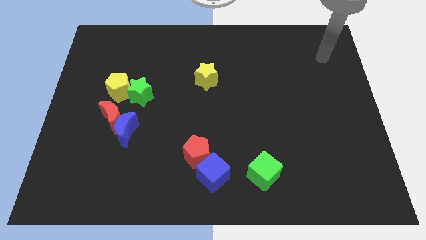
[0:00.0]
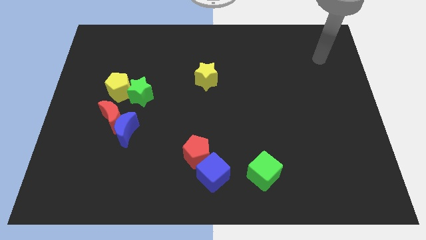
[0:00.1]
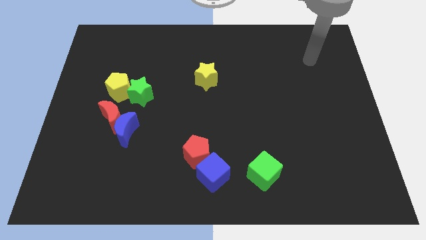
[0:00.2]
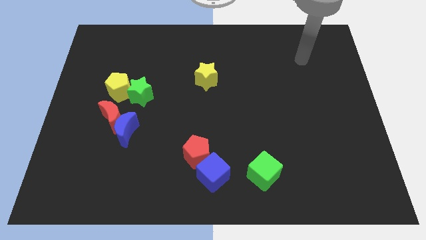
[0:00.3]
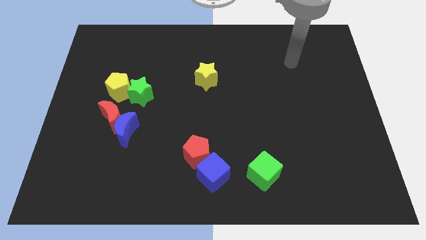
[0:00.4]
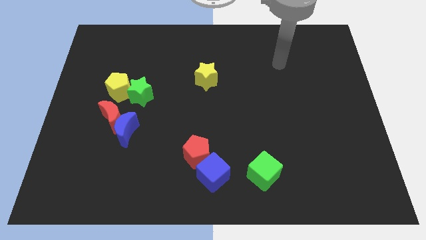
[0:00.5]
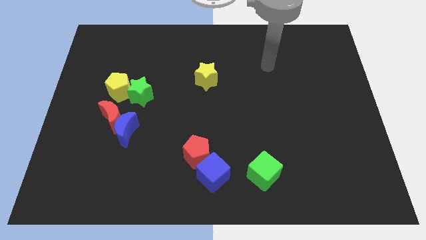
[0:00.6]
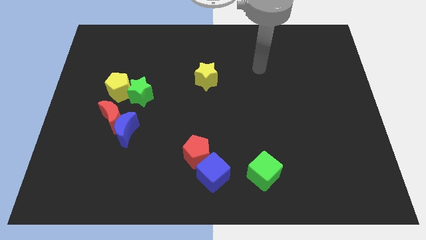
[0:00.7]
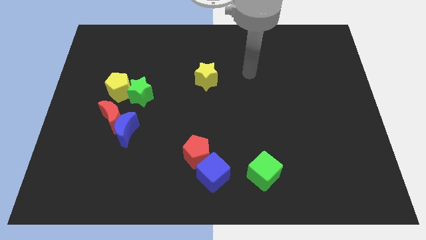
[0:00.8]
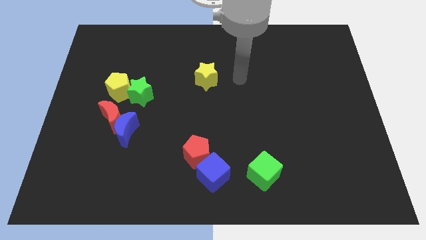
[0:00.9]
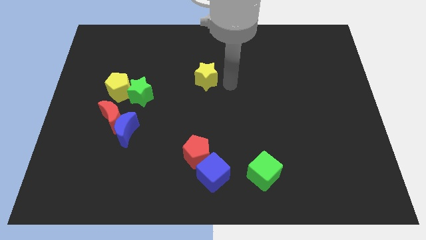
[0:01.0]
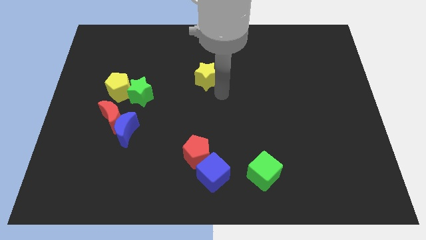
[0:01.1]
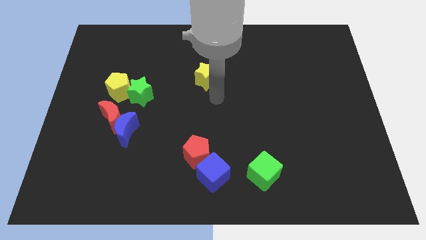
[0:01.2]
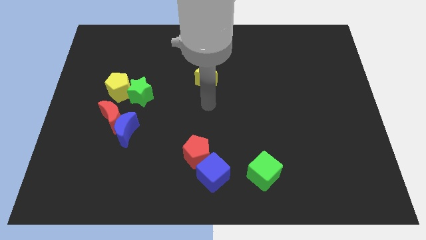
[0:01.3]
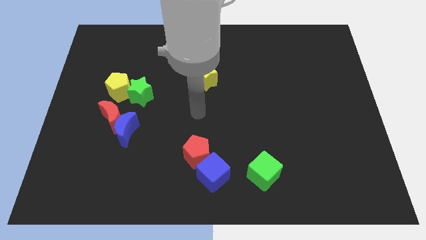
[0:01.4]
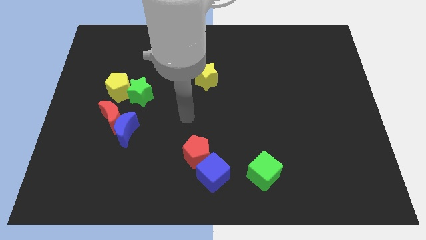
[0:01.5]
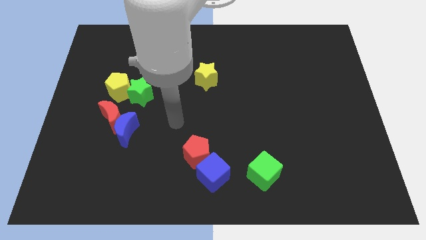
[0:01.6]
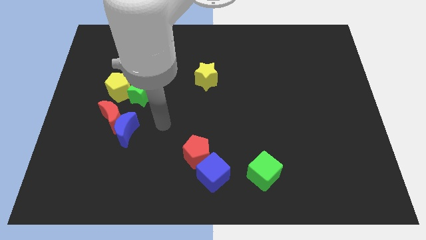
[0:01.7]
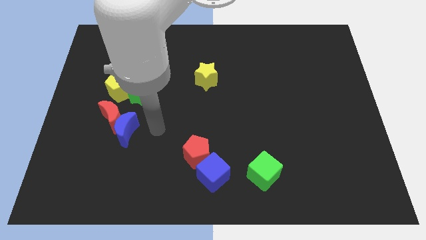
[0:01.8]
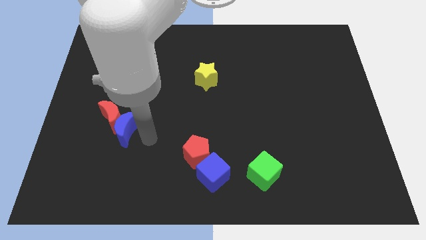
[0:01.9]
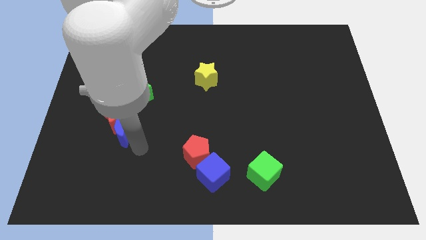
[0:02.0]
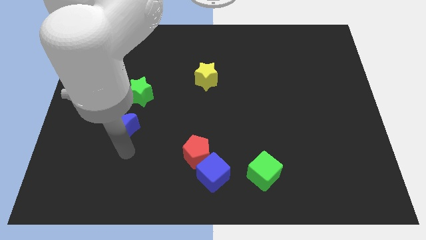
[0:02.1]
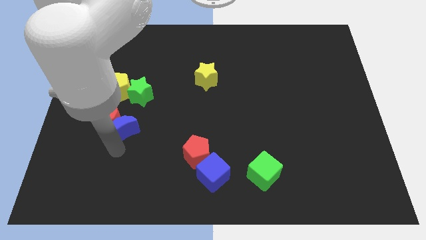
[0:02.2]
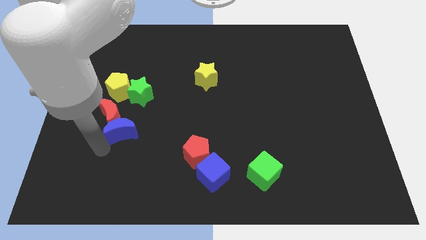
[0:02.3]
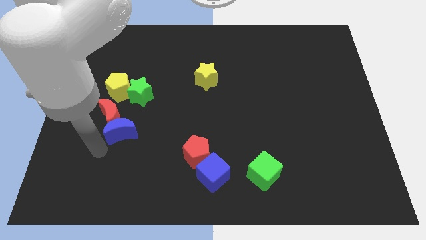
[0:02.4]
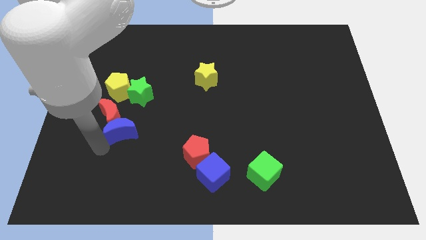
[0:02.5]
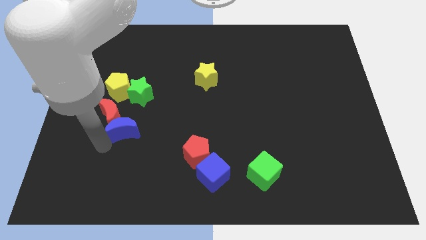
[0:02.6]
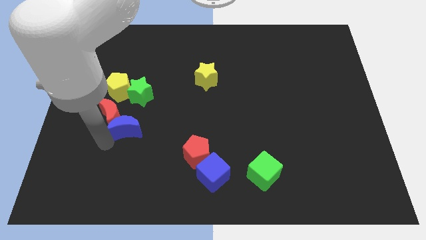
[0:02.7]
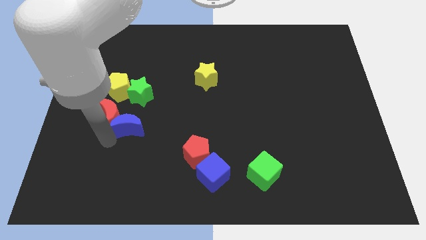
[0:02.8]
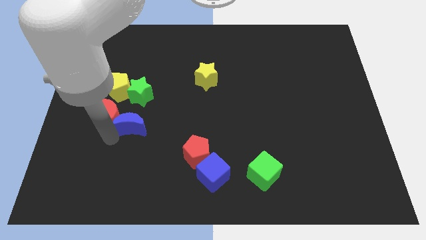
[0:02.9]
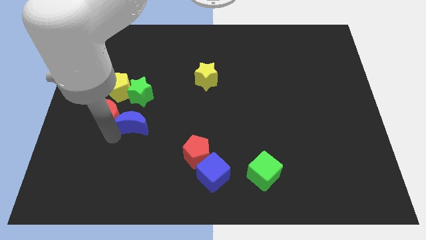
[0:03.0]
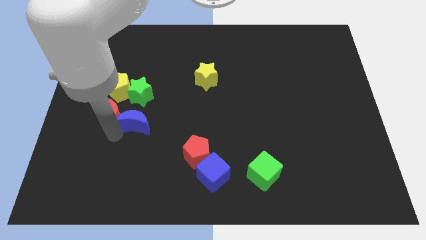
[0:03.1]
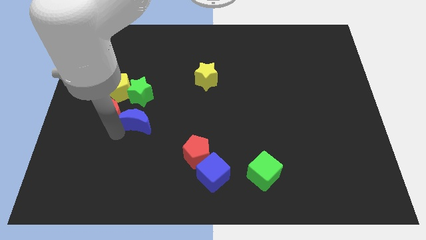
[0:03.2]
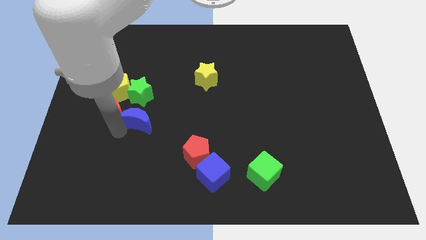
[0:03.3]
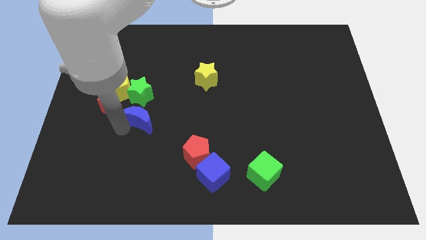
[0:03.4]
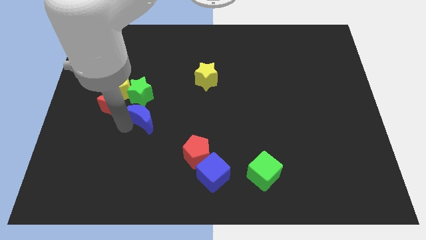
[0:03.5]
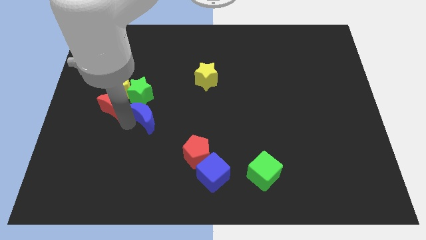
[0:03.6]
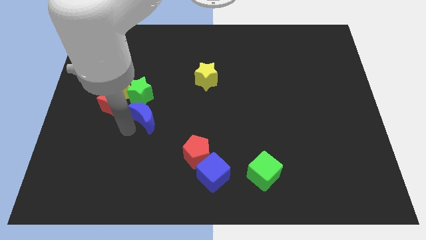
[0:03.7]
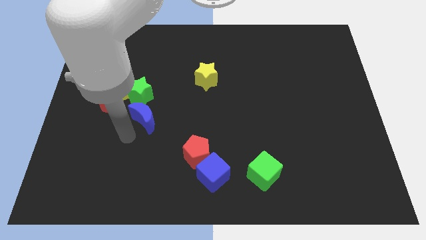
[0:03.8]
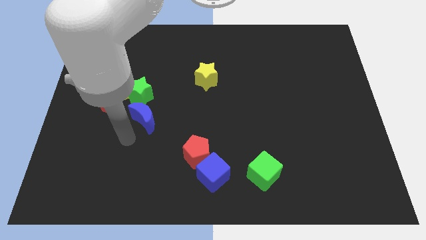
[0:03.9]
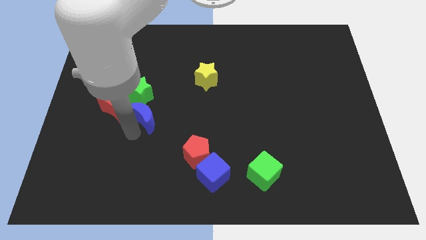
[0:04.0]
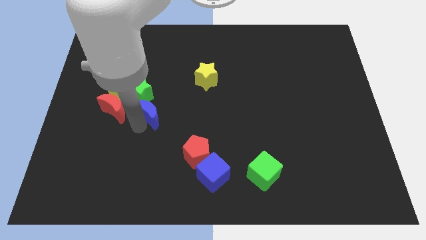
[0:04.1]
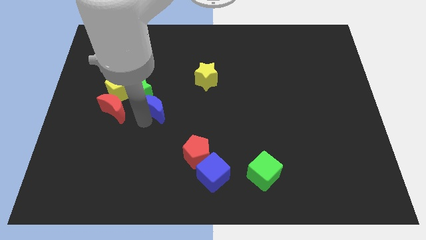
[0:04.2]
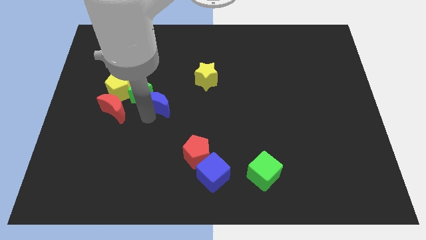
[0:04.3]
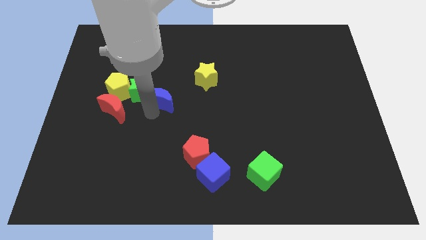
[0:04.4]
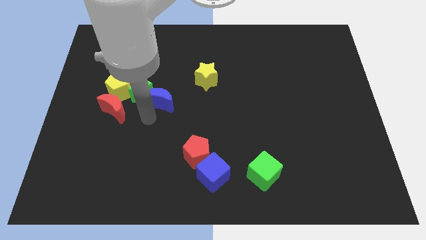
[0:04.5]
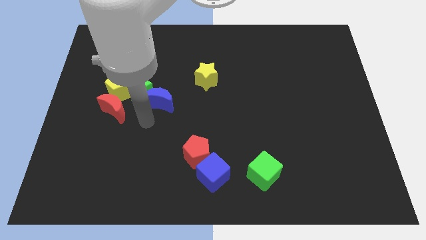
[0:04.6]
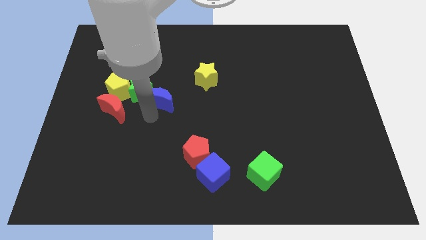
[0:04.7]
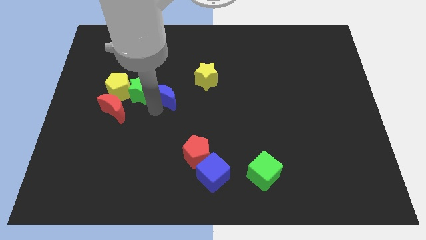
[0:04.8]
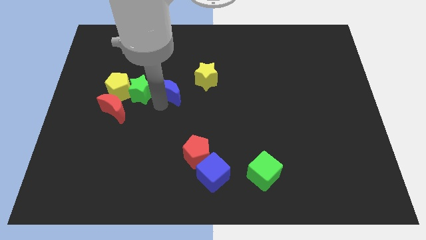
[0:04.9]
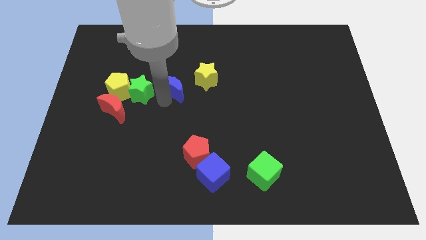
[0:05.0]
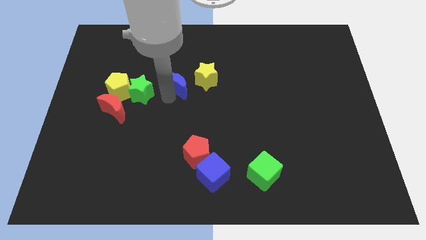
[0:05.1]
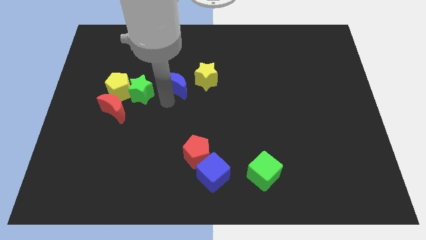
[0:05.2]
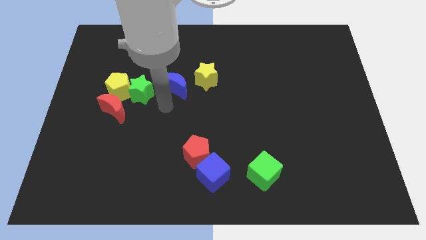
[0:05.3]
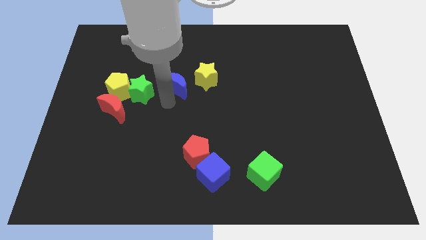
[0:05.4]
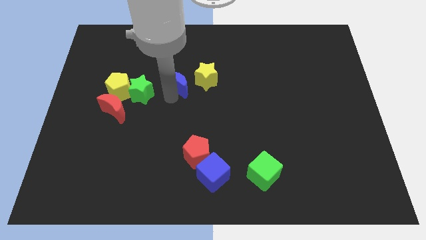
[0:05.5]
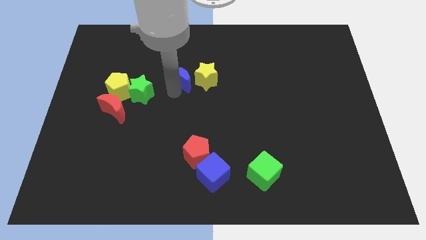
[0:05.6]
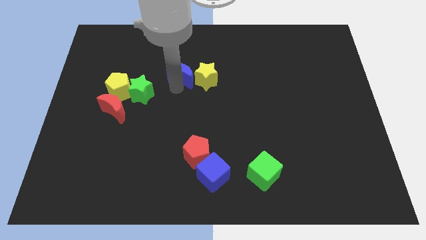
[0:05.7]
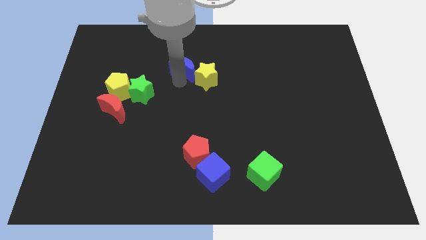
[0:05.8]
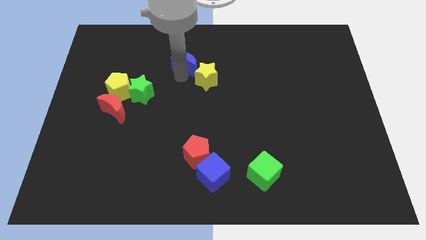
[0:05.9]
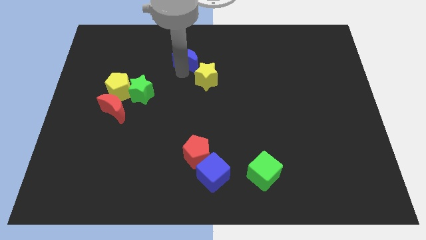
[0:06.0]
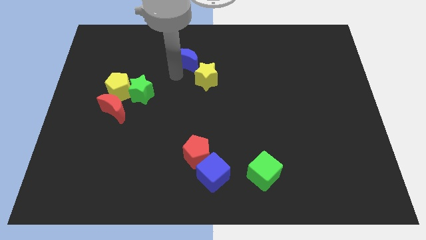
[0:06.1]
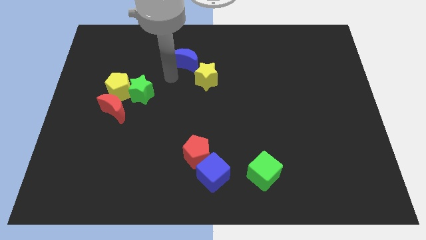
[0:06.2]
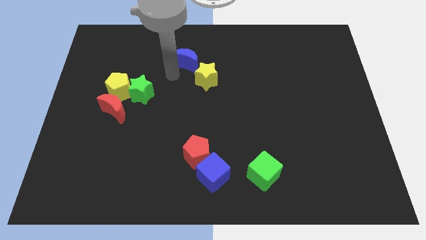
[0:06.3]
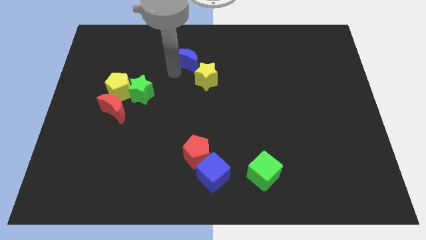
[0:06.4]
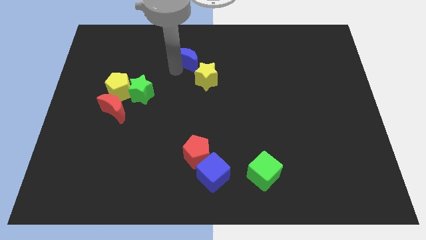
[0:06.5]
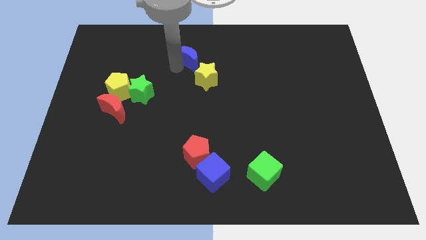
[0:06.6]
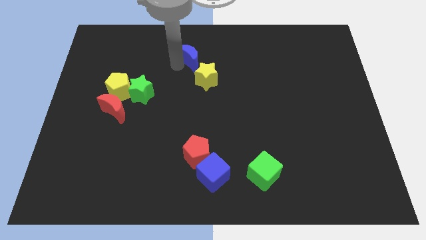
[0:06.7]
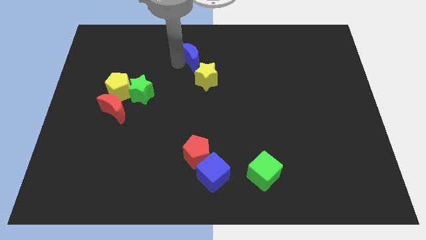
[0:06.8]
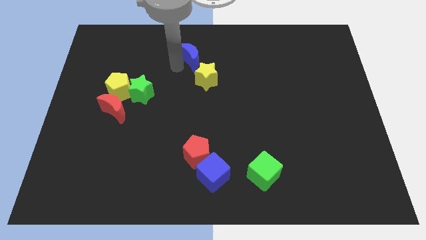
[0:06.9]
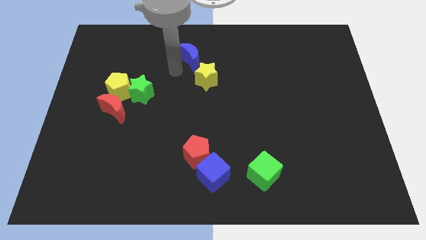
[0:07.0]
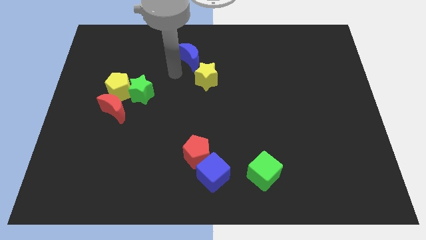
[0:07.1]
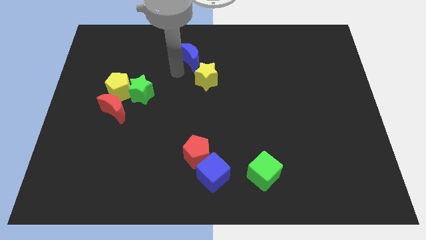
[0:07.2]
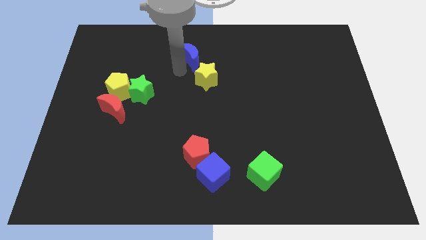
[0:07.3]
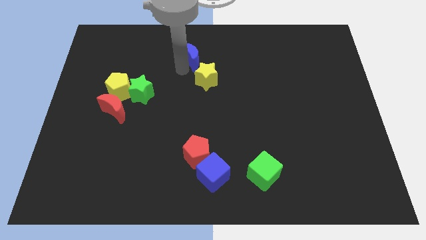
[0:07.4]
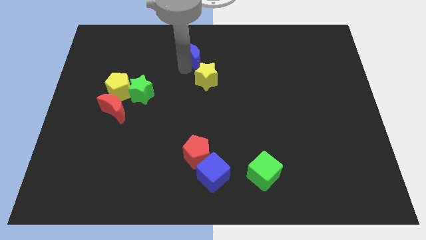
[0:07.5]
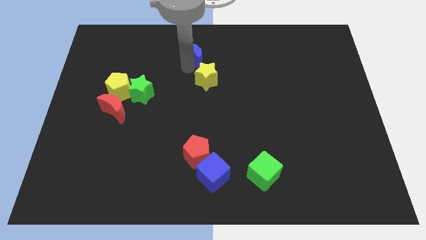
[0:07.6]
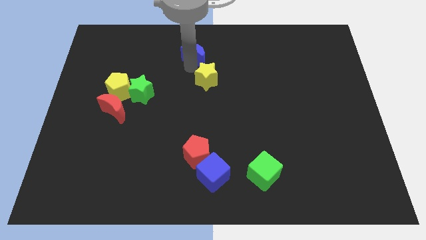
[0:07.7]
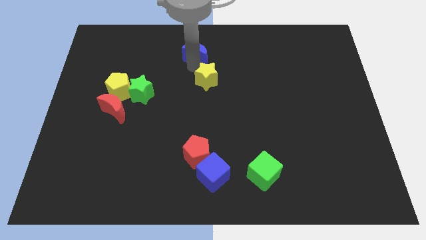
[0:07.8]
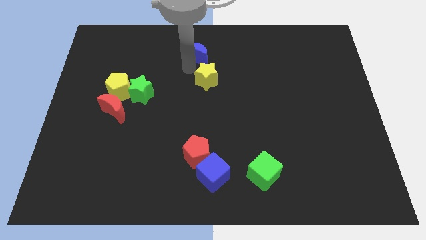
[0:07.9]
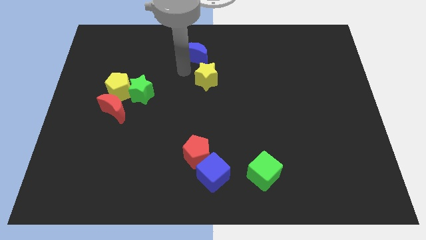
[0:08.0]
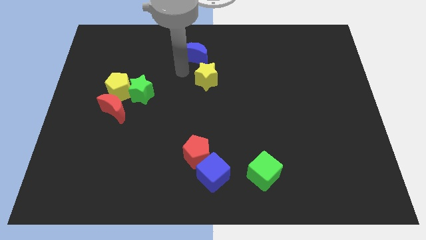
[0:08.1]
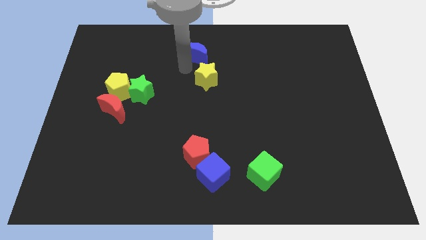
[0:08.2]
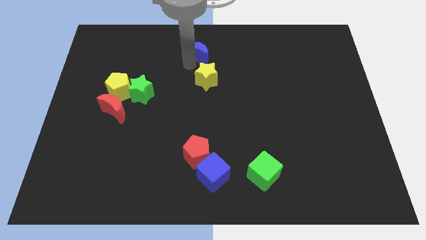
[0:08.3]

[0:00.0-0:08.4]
move the blue moon to the top side
